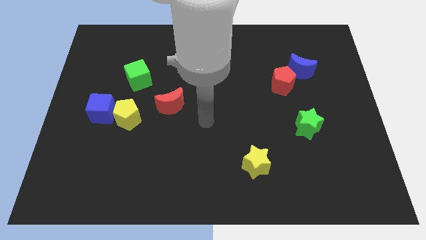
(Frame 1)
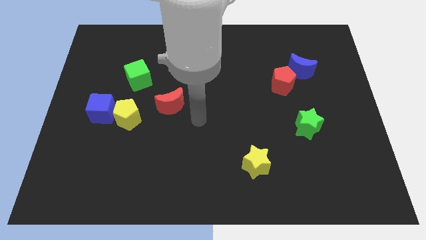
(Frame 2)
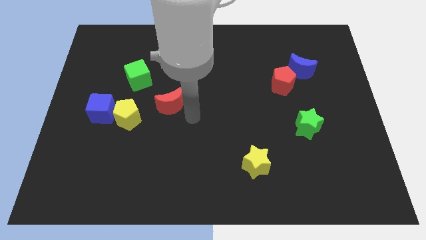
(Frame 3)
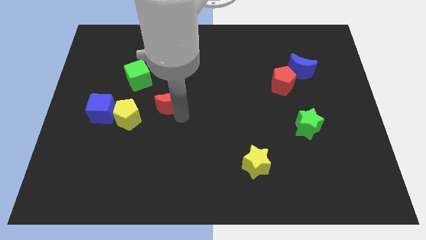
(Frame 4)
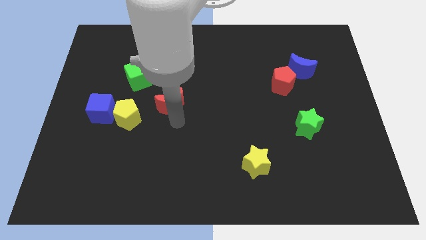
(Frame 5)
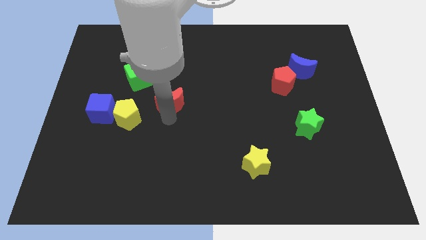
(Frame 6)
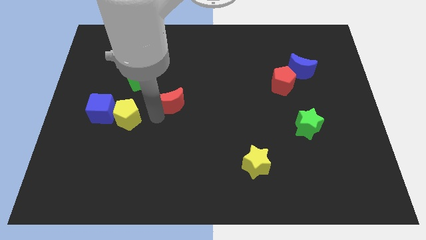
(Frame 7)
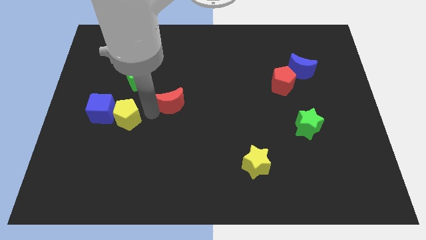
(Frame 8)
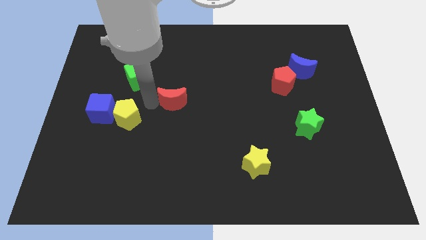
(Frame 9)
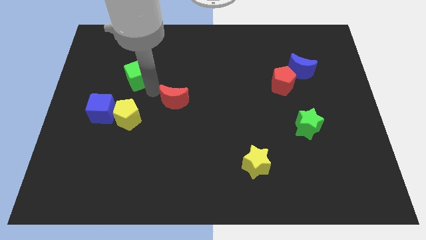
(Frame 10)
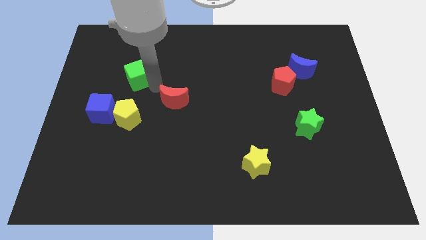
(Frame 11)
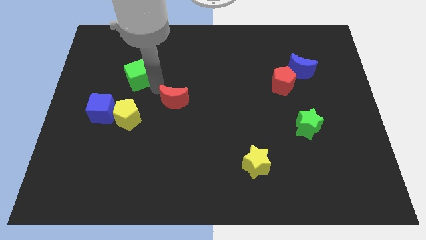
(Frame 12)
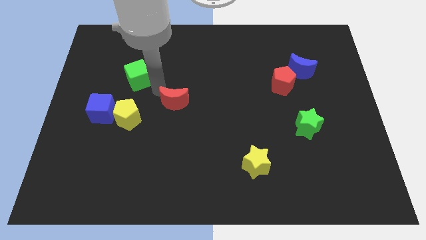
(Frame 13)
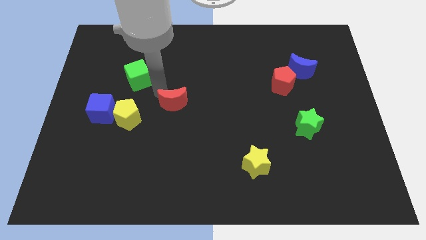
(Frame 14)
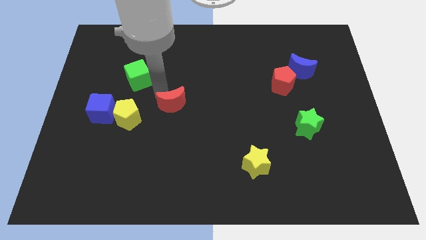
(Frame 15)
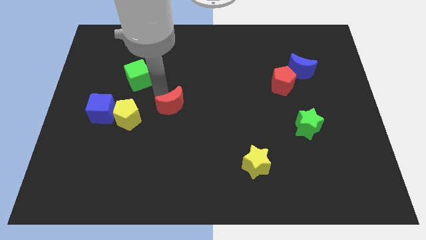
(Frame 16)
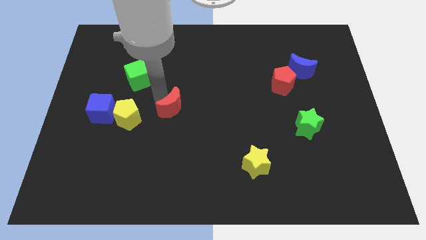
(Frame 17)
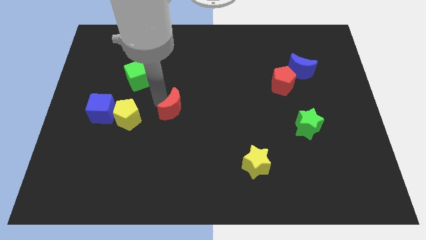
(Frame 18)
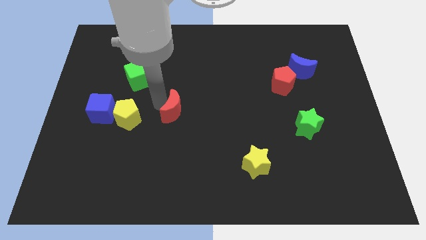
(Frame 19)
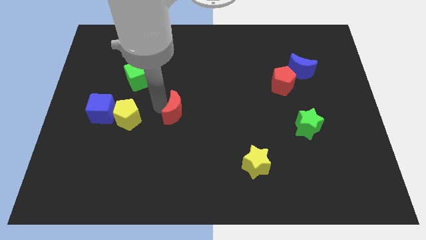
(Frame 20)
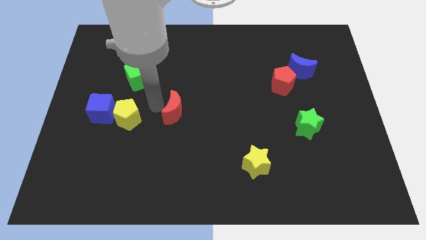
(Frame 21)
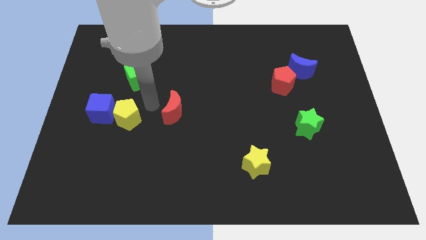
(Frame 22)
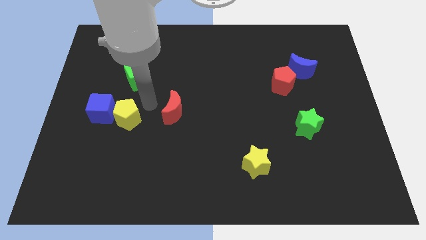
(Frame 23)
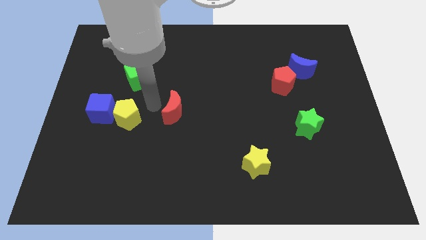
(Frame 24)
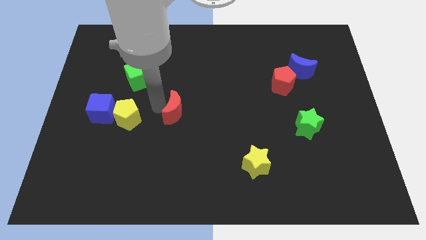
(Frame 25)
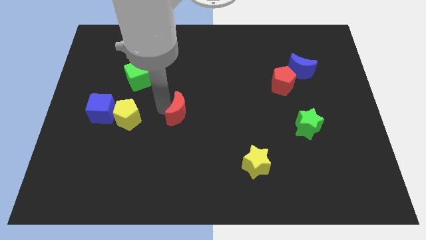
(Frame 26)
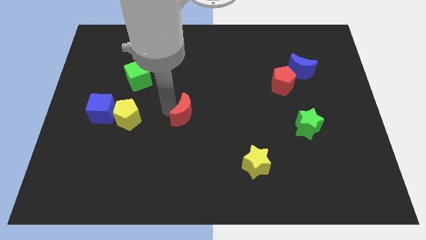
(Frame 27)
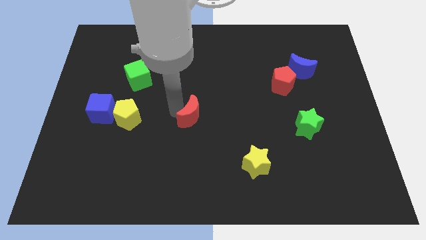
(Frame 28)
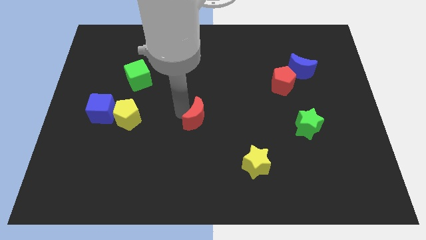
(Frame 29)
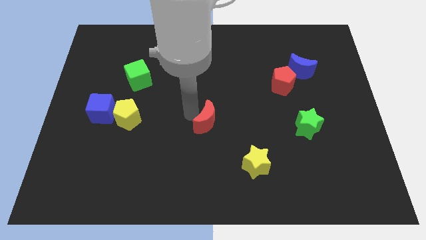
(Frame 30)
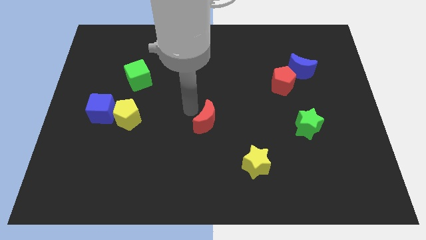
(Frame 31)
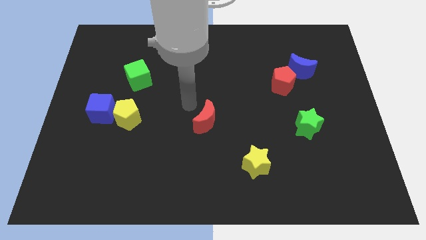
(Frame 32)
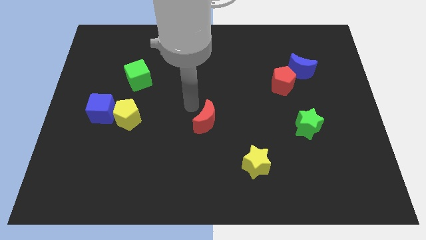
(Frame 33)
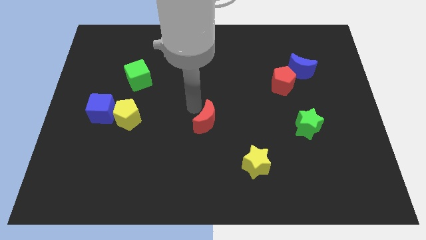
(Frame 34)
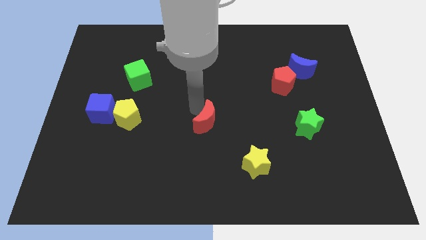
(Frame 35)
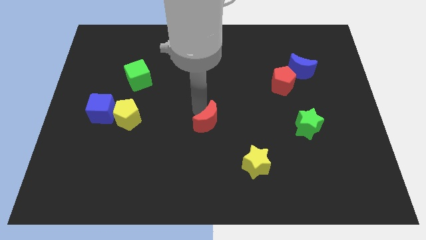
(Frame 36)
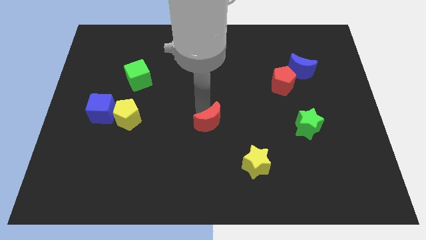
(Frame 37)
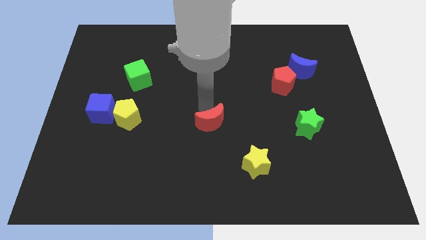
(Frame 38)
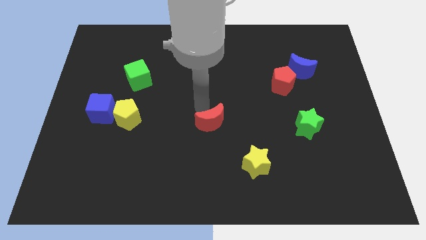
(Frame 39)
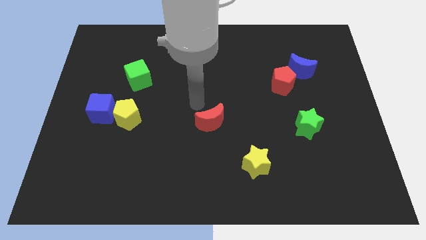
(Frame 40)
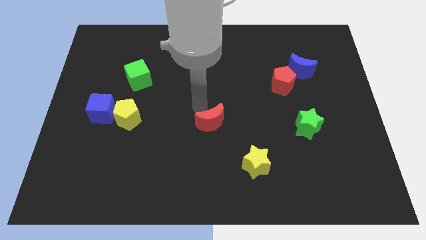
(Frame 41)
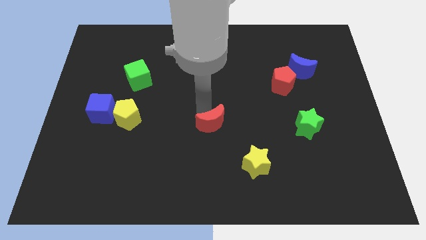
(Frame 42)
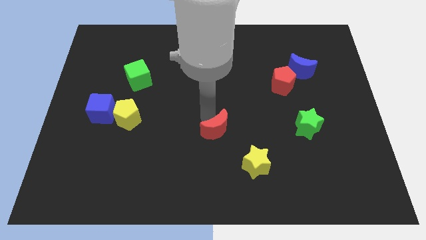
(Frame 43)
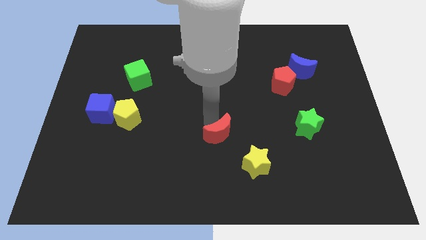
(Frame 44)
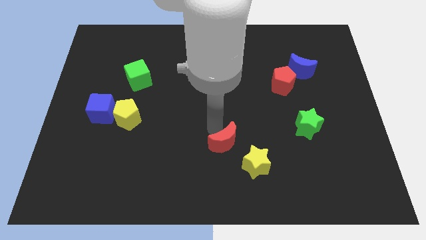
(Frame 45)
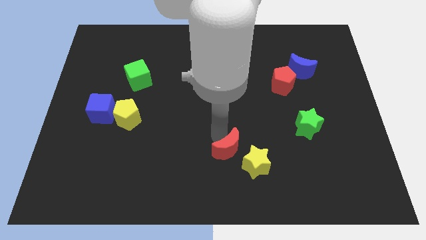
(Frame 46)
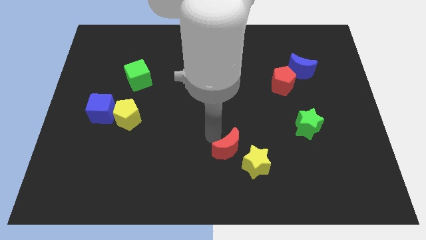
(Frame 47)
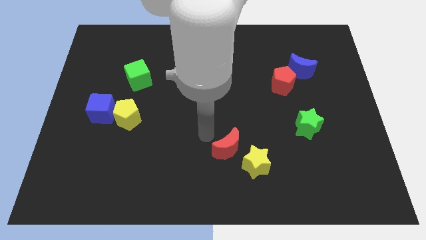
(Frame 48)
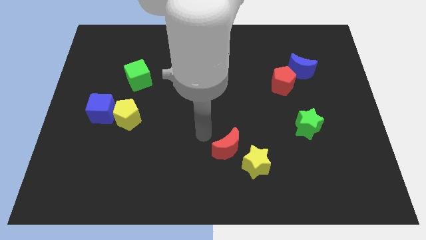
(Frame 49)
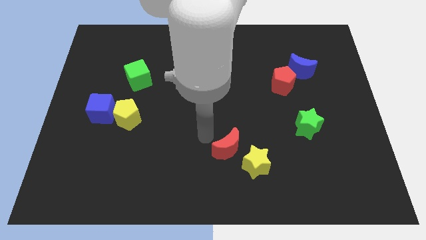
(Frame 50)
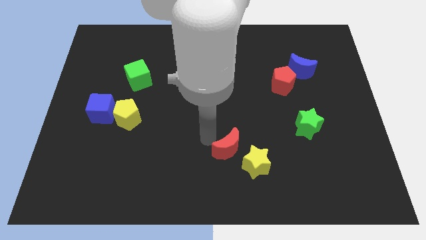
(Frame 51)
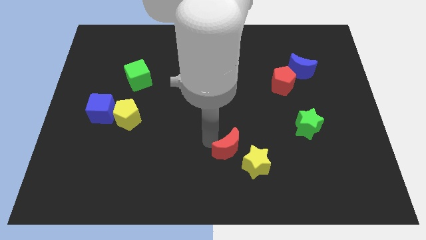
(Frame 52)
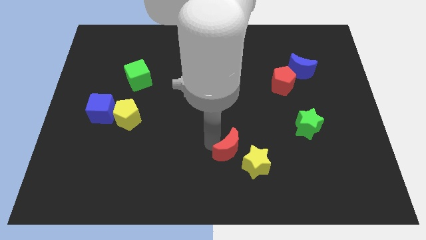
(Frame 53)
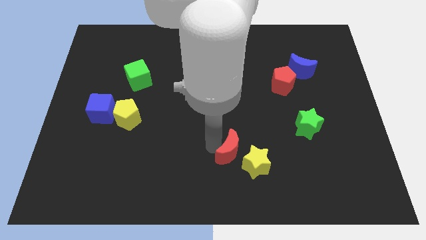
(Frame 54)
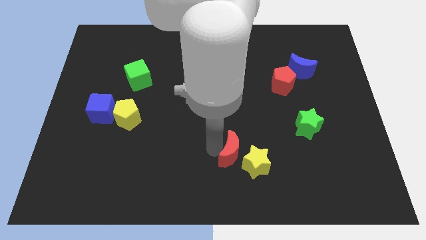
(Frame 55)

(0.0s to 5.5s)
move the red moon next to the yellow star

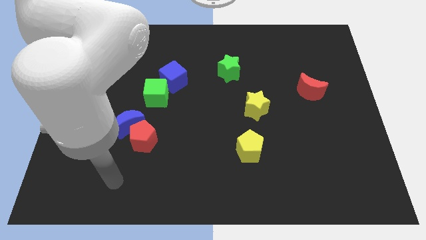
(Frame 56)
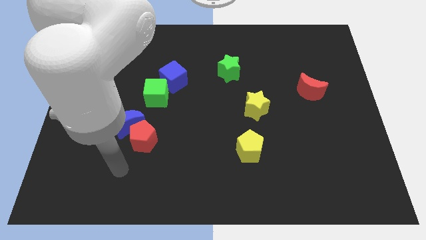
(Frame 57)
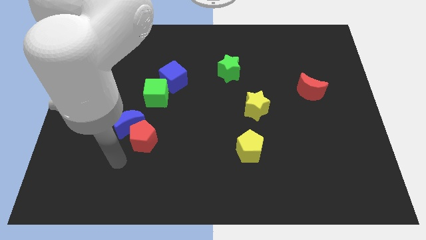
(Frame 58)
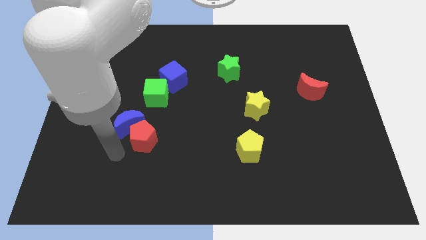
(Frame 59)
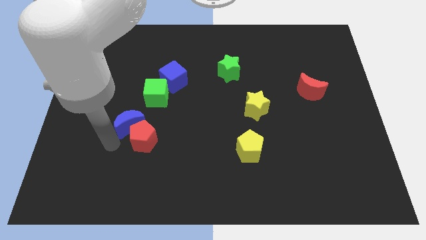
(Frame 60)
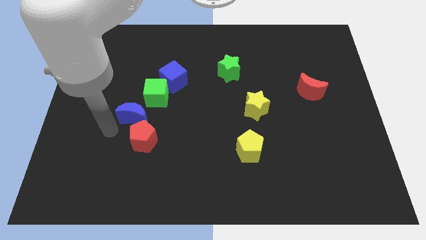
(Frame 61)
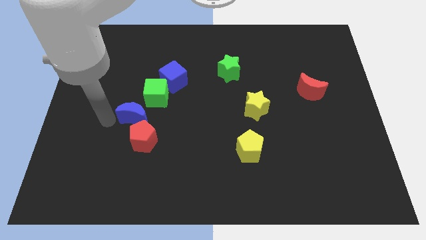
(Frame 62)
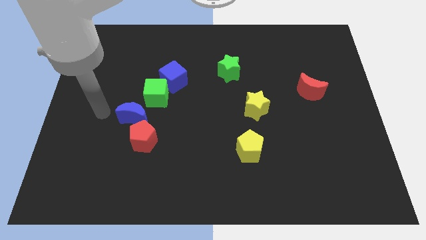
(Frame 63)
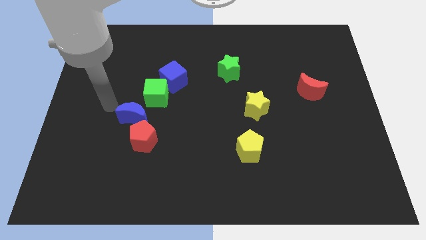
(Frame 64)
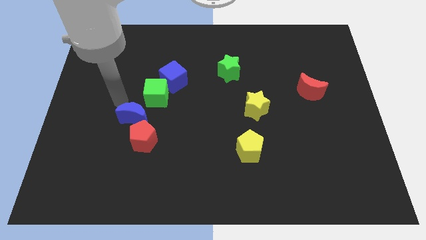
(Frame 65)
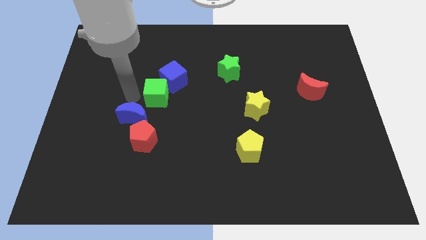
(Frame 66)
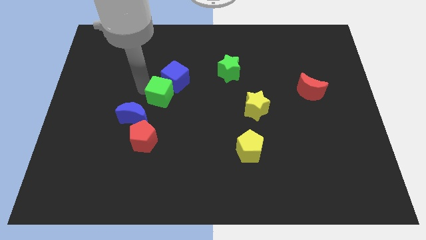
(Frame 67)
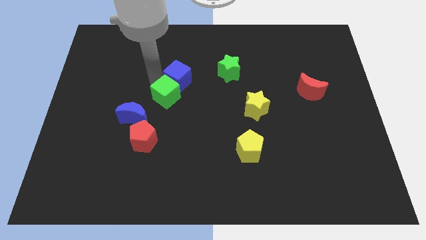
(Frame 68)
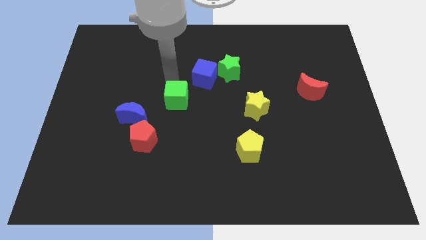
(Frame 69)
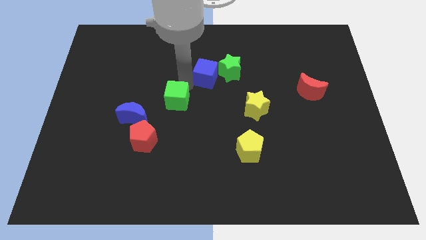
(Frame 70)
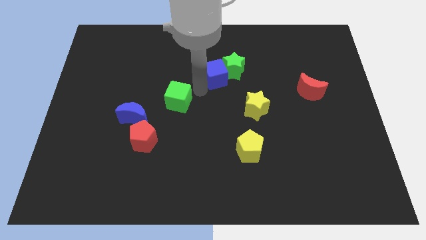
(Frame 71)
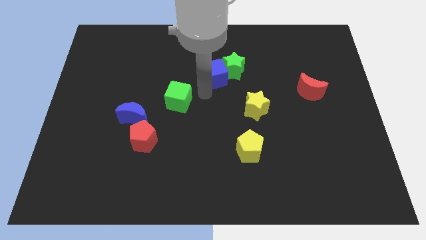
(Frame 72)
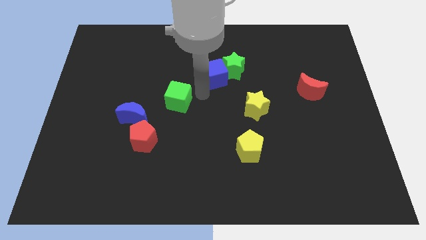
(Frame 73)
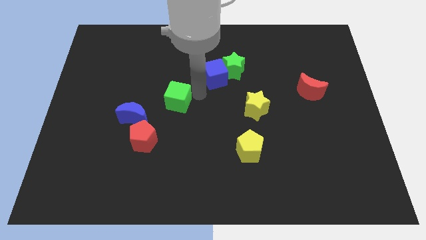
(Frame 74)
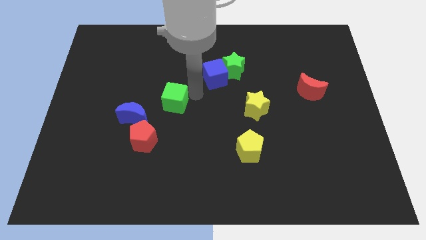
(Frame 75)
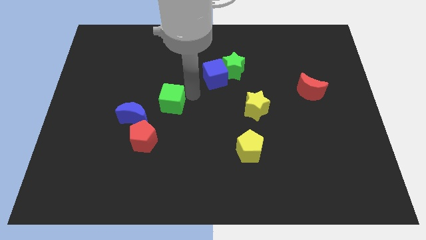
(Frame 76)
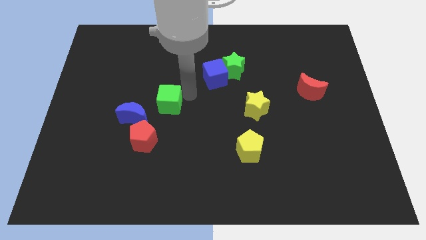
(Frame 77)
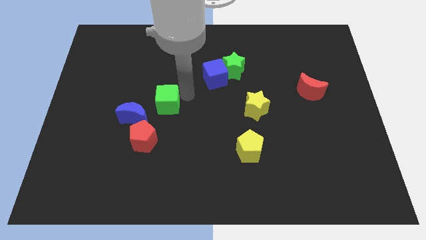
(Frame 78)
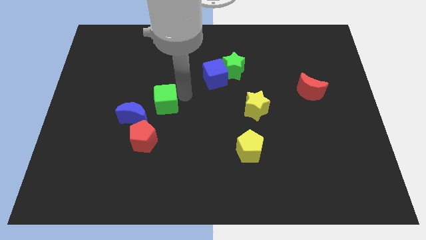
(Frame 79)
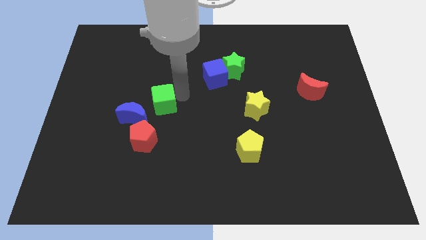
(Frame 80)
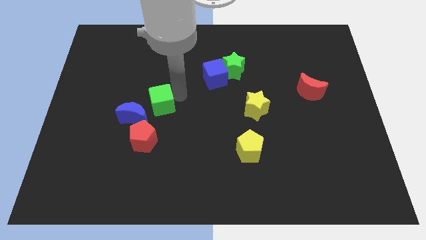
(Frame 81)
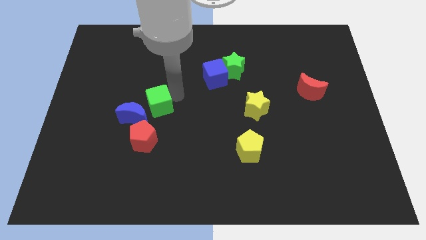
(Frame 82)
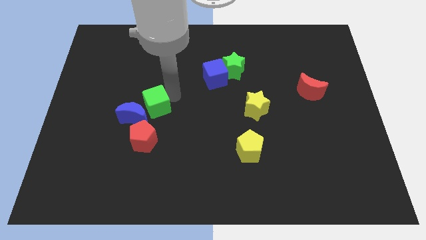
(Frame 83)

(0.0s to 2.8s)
move the green cube close to the blue moon
